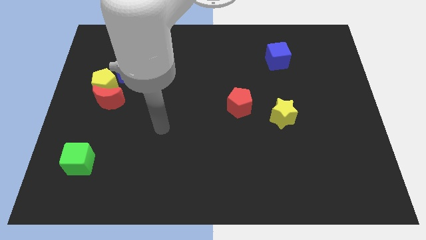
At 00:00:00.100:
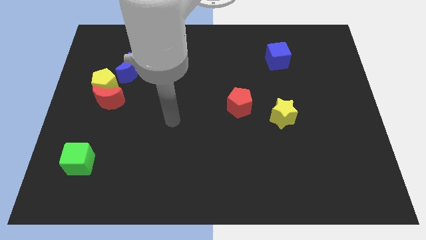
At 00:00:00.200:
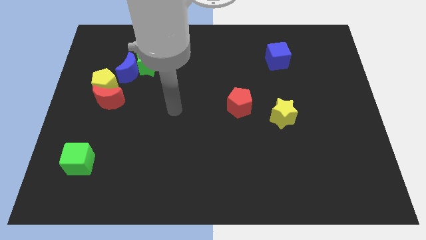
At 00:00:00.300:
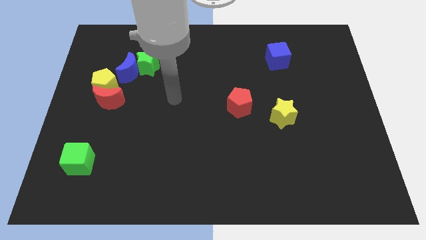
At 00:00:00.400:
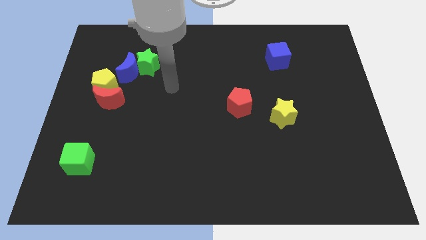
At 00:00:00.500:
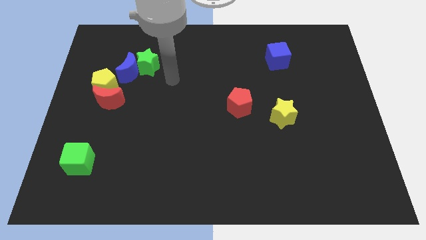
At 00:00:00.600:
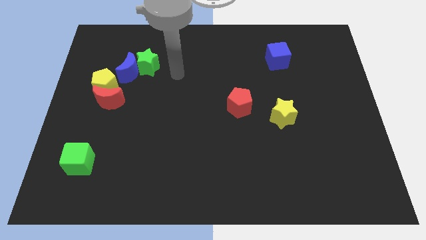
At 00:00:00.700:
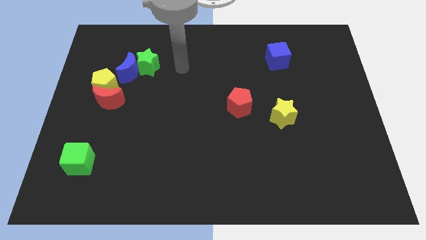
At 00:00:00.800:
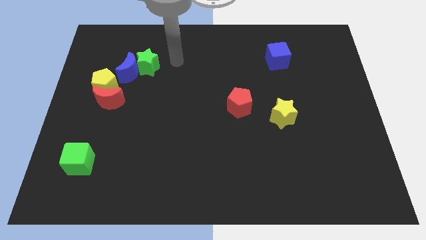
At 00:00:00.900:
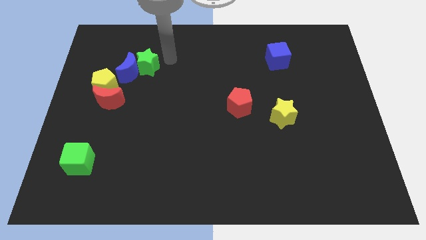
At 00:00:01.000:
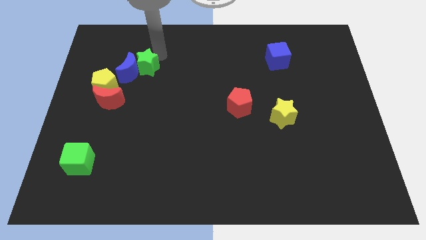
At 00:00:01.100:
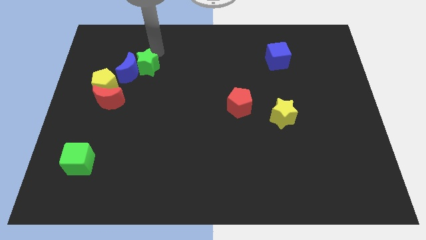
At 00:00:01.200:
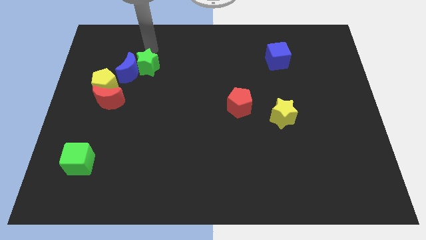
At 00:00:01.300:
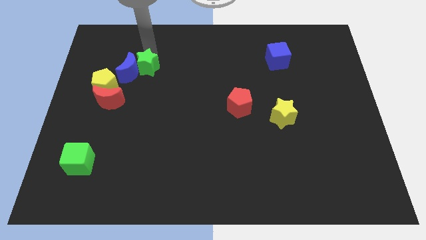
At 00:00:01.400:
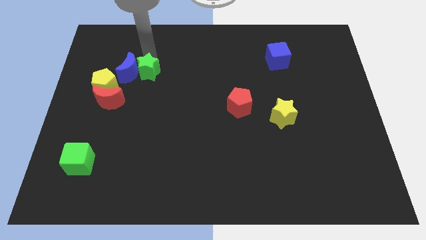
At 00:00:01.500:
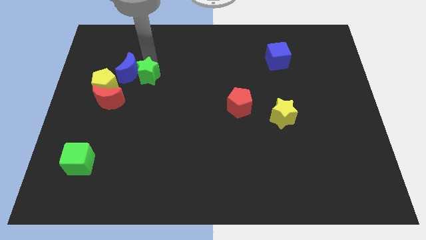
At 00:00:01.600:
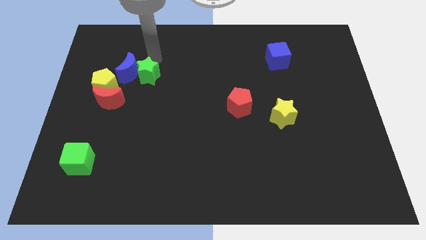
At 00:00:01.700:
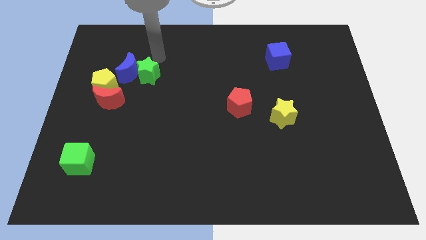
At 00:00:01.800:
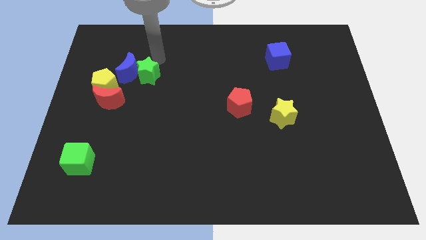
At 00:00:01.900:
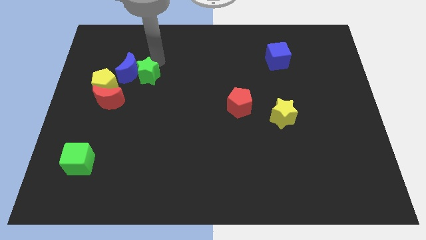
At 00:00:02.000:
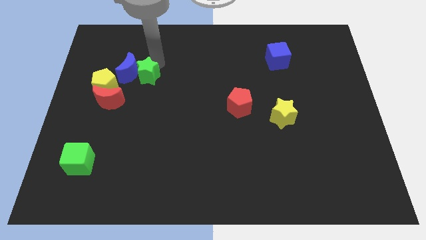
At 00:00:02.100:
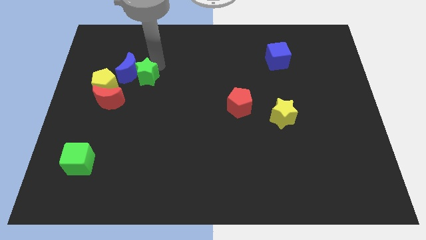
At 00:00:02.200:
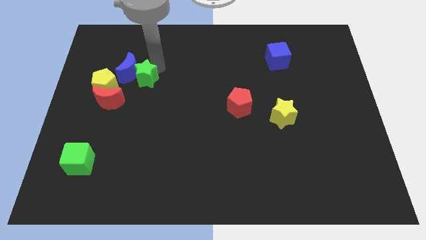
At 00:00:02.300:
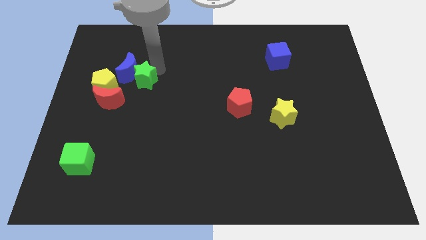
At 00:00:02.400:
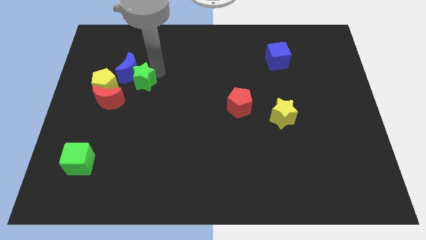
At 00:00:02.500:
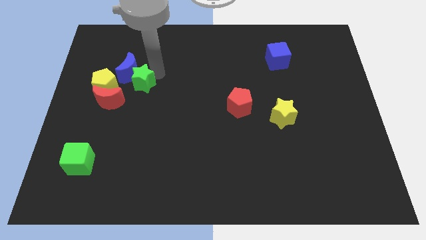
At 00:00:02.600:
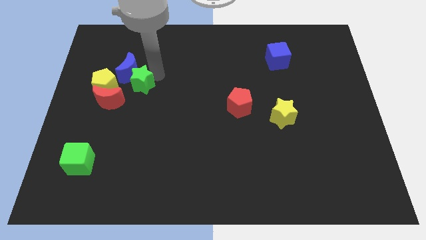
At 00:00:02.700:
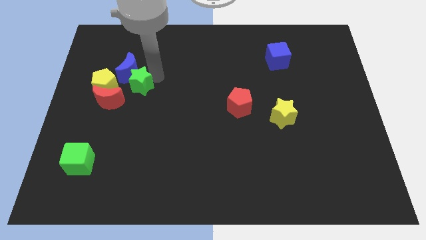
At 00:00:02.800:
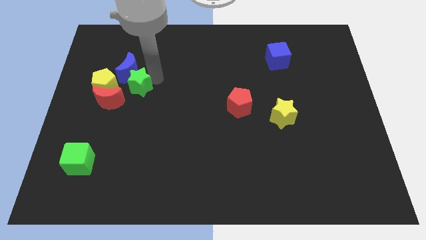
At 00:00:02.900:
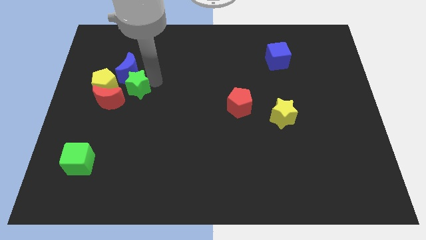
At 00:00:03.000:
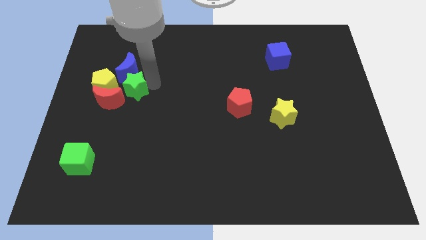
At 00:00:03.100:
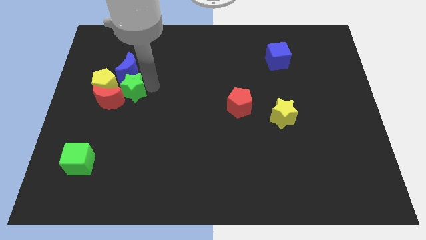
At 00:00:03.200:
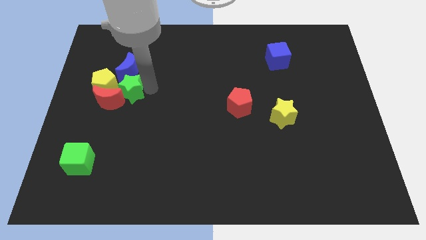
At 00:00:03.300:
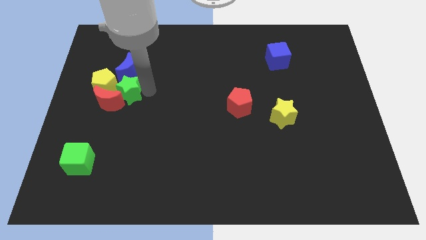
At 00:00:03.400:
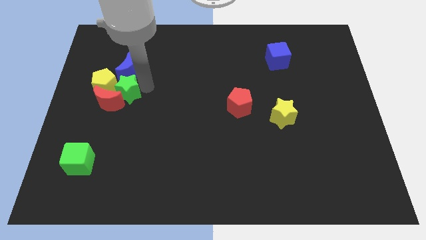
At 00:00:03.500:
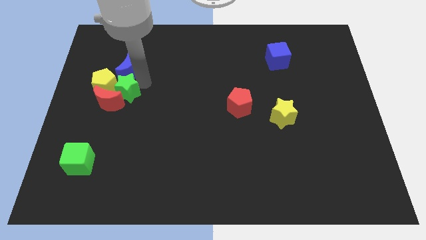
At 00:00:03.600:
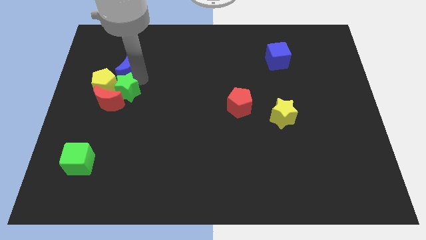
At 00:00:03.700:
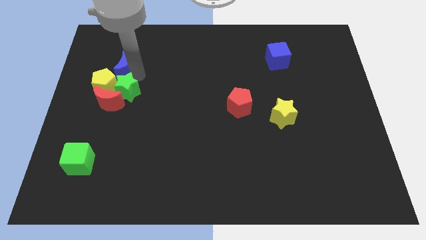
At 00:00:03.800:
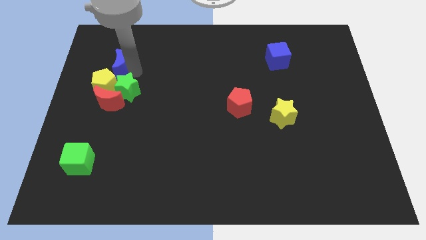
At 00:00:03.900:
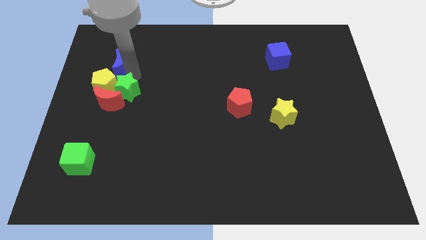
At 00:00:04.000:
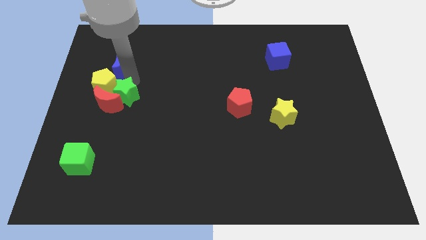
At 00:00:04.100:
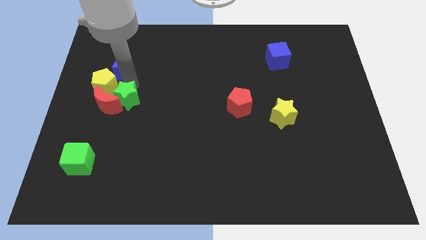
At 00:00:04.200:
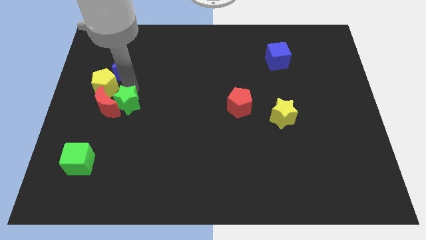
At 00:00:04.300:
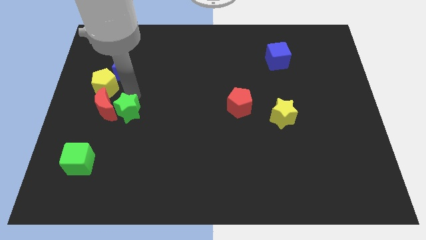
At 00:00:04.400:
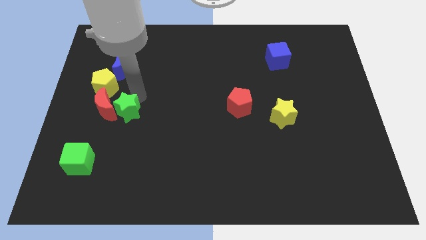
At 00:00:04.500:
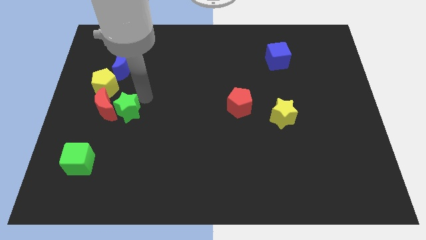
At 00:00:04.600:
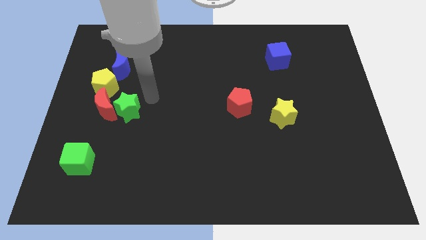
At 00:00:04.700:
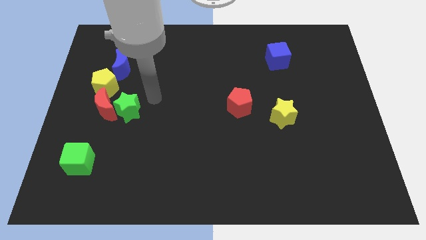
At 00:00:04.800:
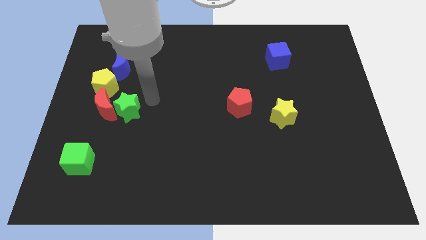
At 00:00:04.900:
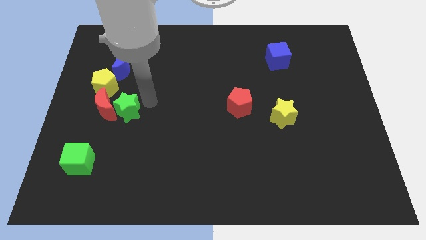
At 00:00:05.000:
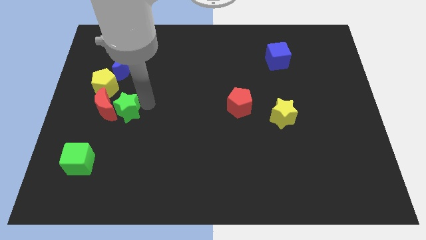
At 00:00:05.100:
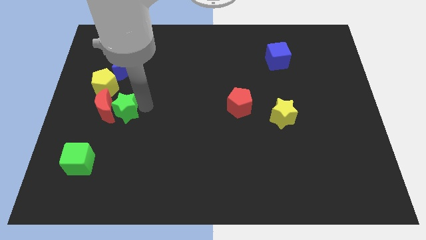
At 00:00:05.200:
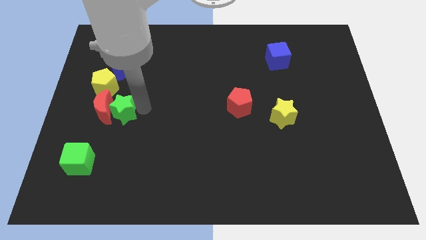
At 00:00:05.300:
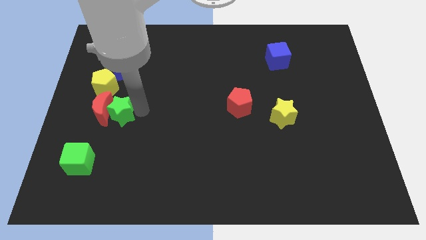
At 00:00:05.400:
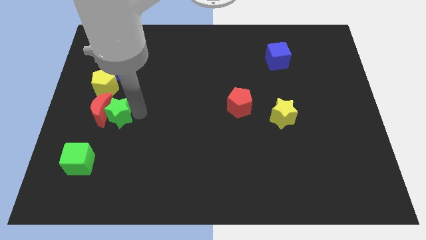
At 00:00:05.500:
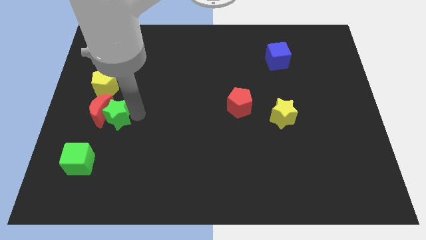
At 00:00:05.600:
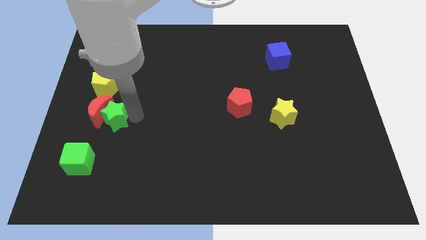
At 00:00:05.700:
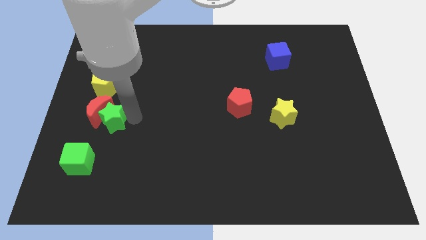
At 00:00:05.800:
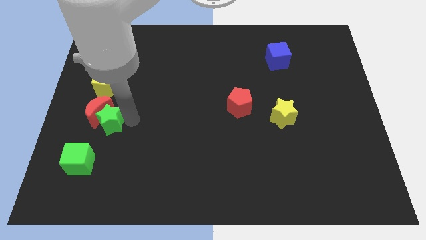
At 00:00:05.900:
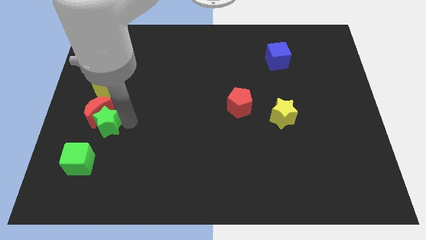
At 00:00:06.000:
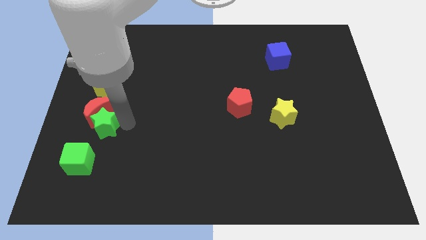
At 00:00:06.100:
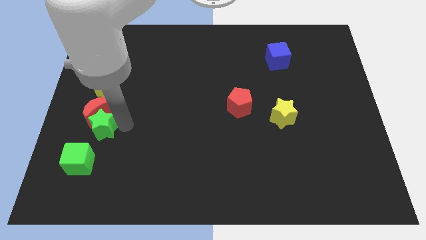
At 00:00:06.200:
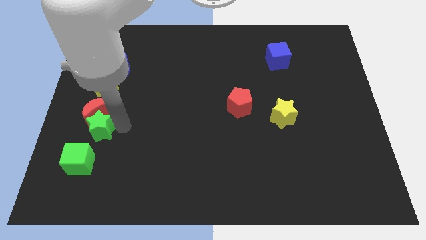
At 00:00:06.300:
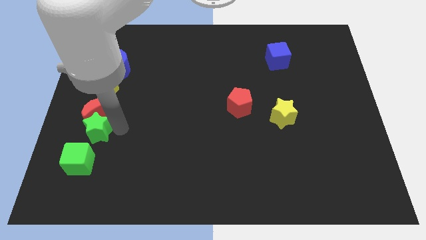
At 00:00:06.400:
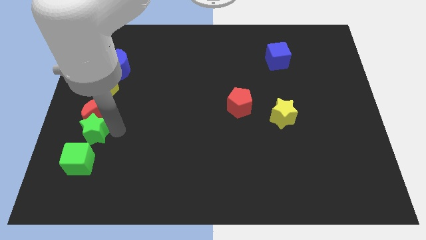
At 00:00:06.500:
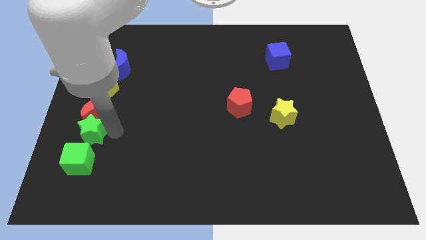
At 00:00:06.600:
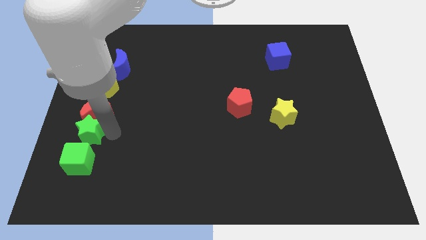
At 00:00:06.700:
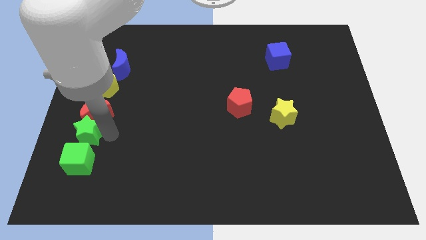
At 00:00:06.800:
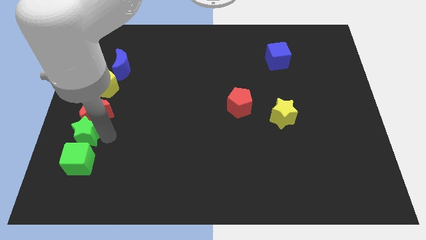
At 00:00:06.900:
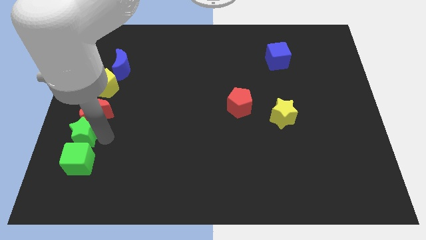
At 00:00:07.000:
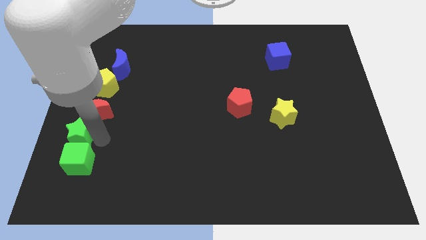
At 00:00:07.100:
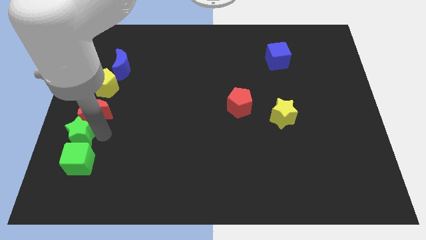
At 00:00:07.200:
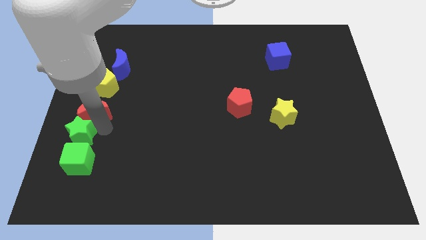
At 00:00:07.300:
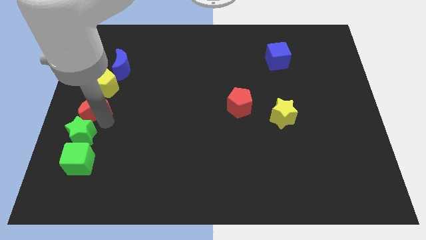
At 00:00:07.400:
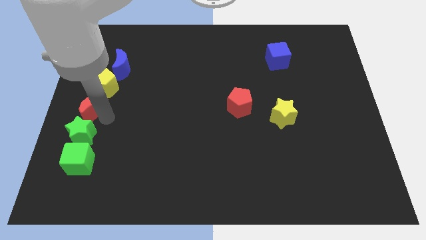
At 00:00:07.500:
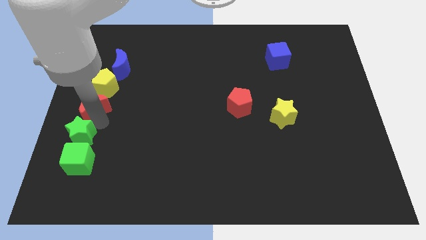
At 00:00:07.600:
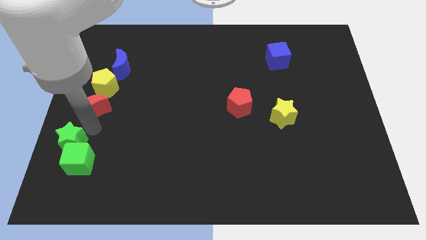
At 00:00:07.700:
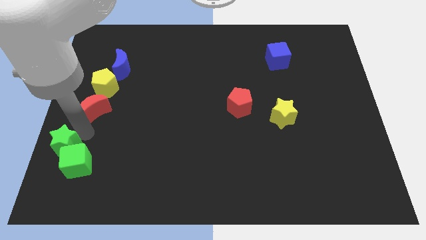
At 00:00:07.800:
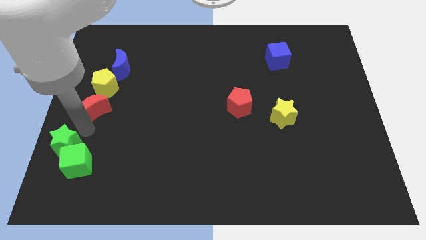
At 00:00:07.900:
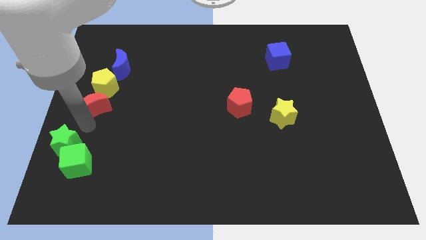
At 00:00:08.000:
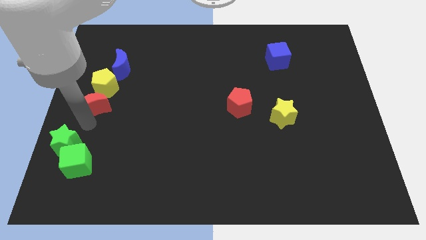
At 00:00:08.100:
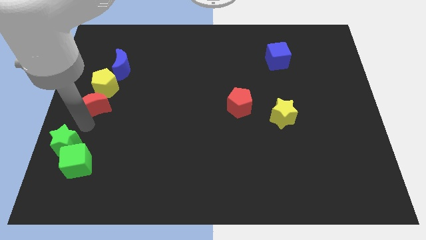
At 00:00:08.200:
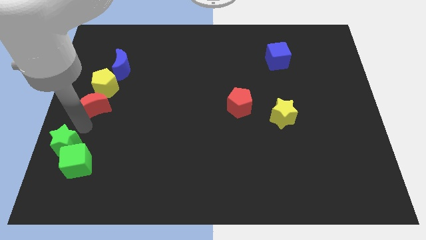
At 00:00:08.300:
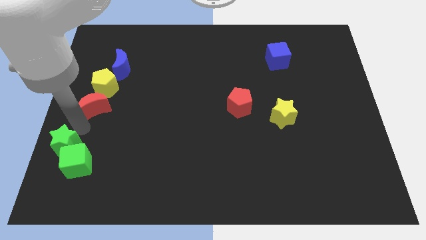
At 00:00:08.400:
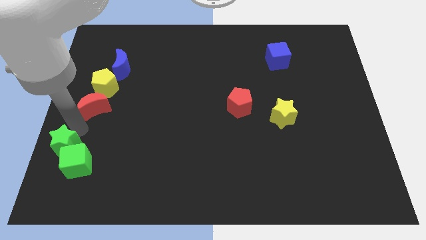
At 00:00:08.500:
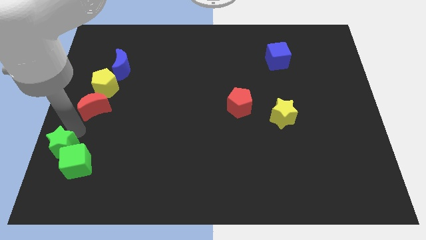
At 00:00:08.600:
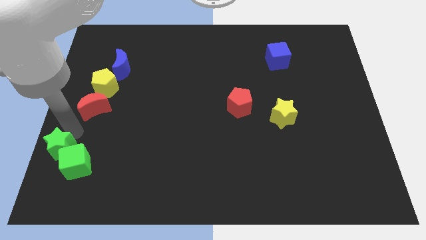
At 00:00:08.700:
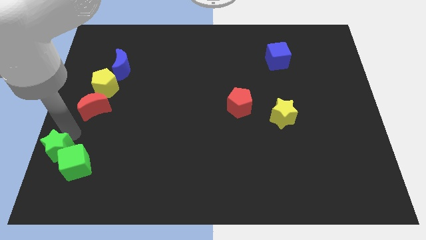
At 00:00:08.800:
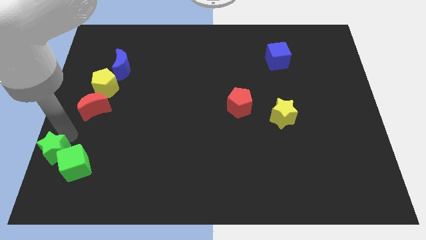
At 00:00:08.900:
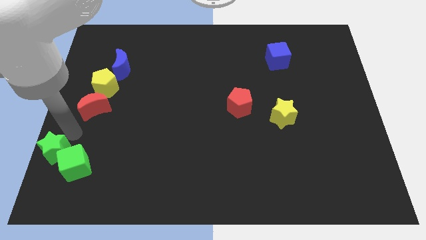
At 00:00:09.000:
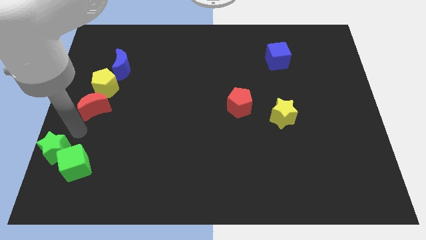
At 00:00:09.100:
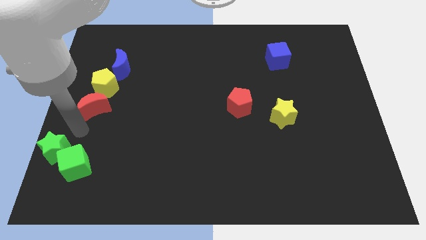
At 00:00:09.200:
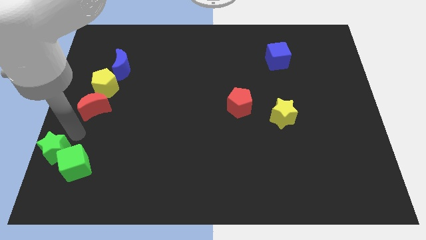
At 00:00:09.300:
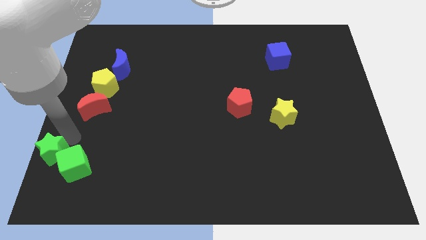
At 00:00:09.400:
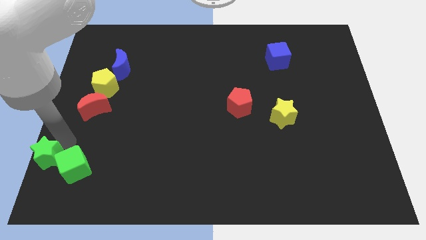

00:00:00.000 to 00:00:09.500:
put the green star to the bottom left of the board
